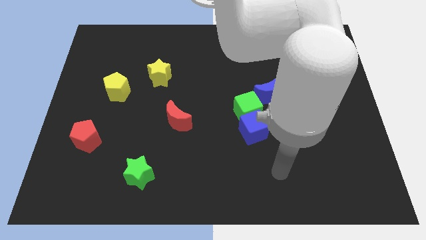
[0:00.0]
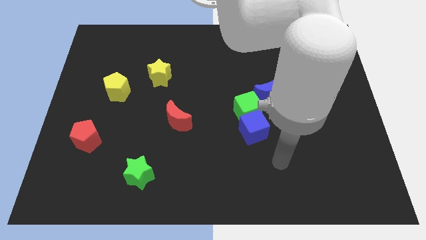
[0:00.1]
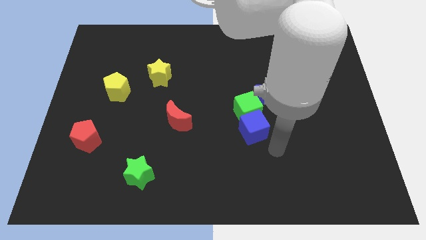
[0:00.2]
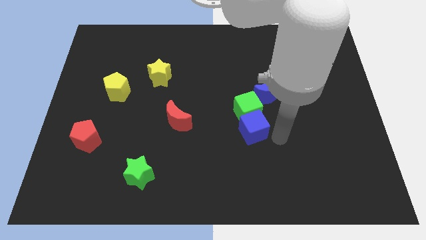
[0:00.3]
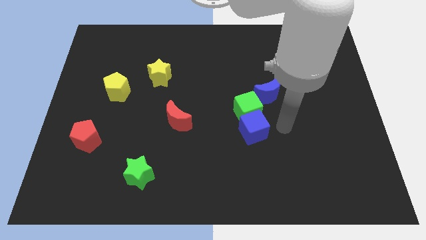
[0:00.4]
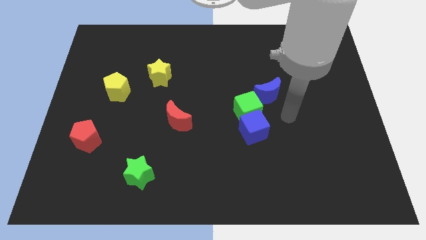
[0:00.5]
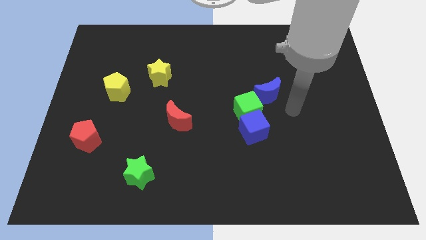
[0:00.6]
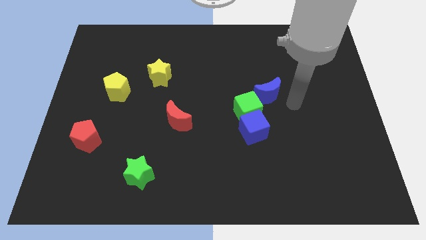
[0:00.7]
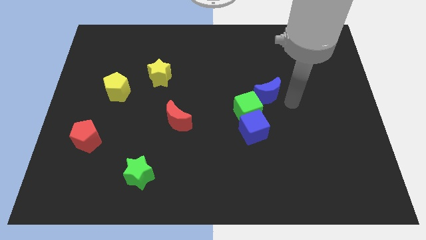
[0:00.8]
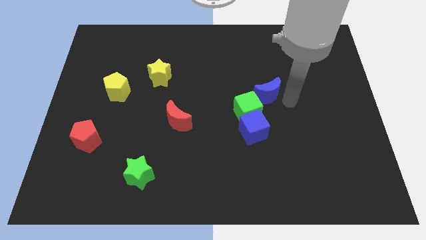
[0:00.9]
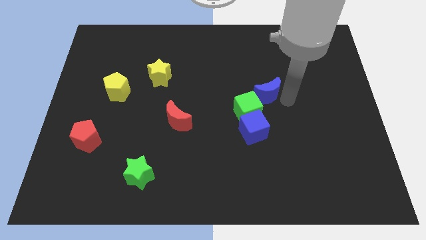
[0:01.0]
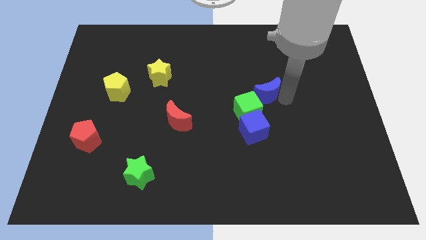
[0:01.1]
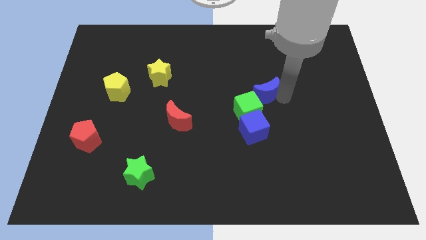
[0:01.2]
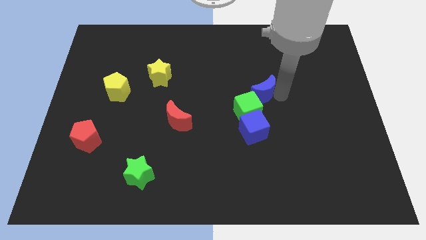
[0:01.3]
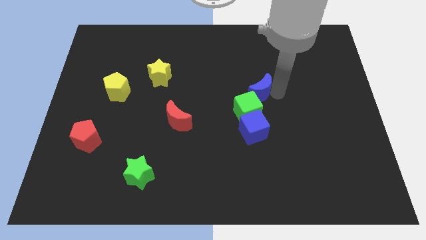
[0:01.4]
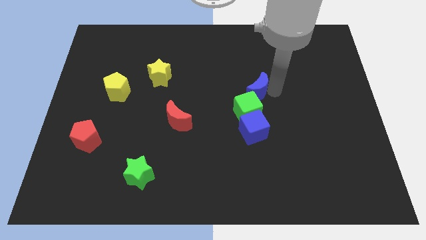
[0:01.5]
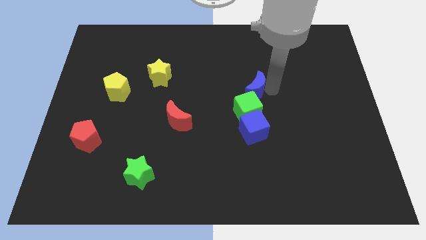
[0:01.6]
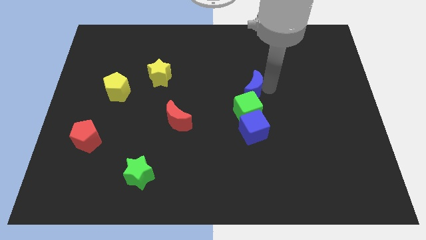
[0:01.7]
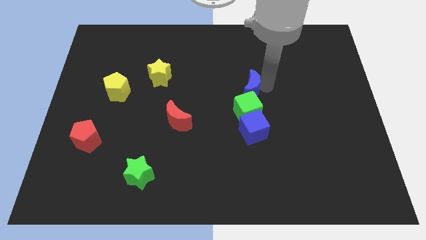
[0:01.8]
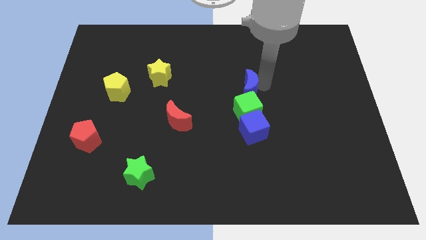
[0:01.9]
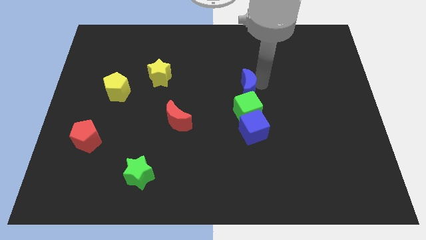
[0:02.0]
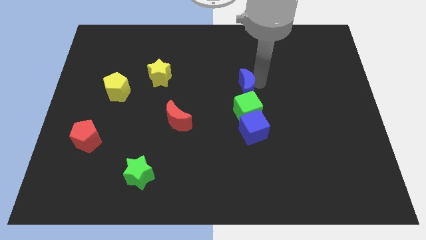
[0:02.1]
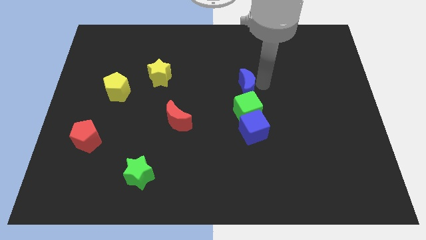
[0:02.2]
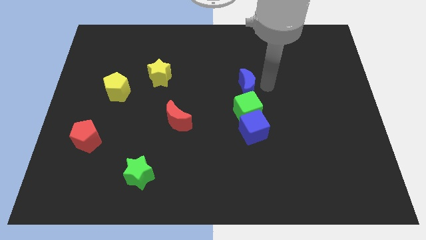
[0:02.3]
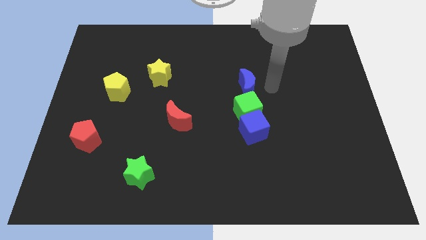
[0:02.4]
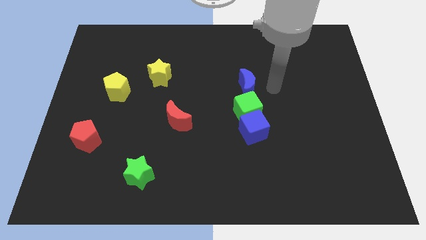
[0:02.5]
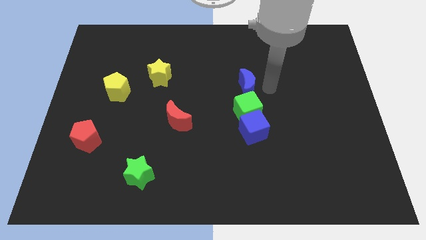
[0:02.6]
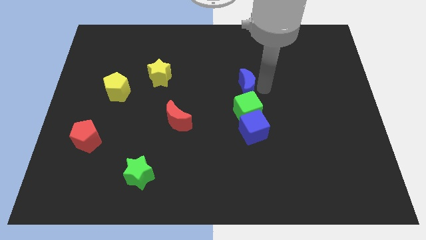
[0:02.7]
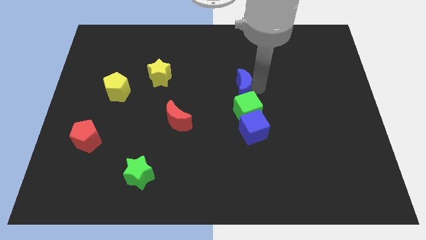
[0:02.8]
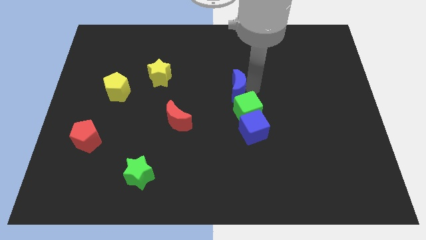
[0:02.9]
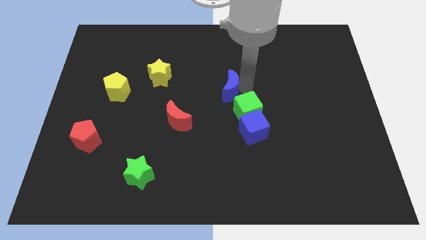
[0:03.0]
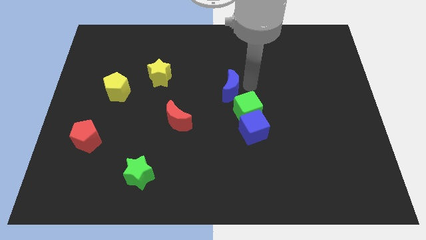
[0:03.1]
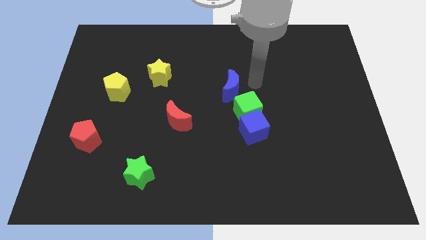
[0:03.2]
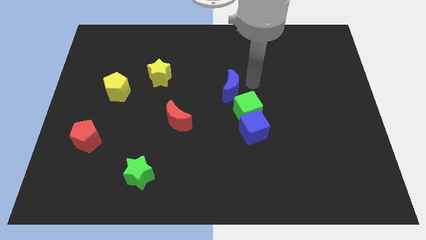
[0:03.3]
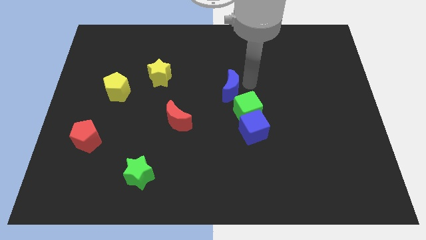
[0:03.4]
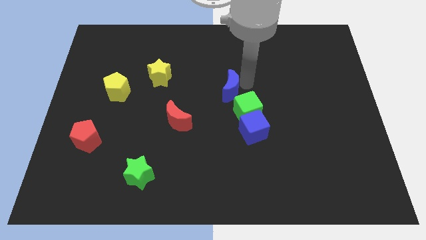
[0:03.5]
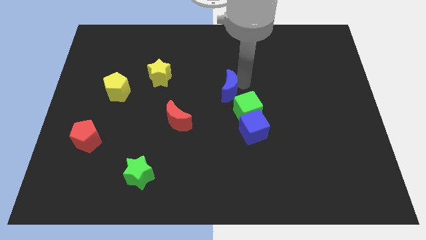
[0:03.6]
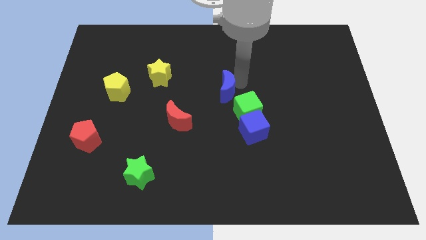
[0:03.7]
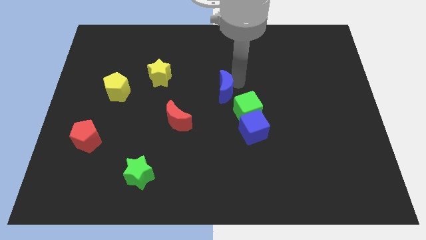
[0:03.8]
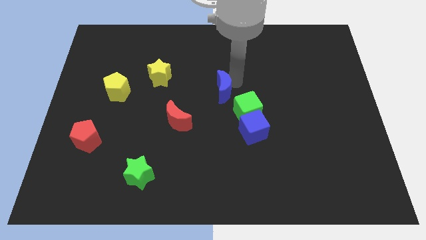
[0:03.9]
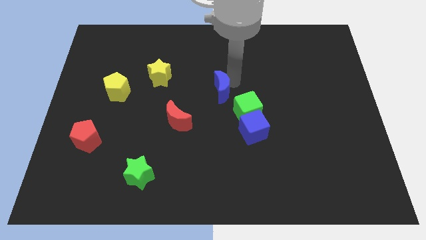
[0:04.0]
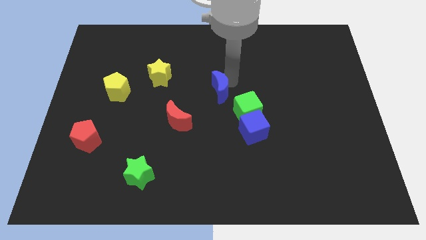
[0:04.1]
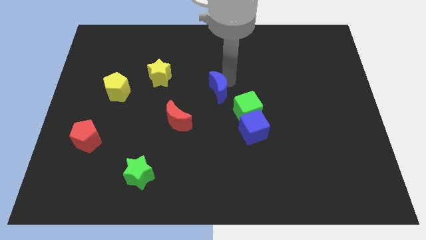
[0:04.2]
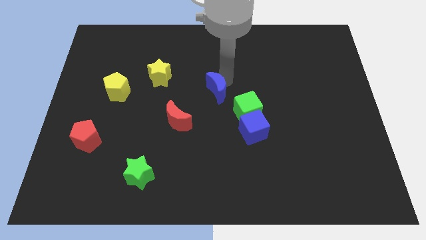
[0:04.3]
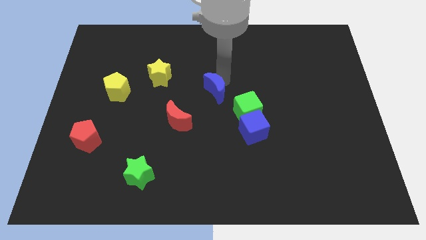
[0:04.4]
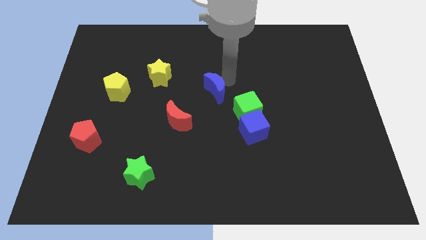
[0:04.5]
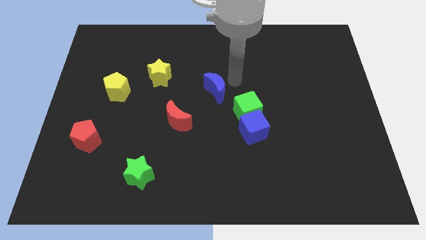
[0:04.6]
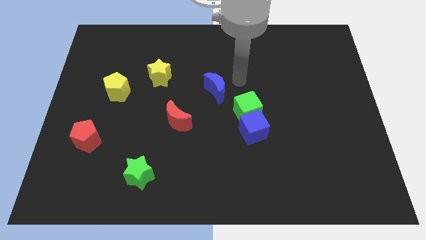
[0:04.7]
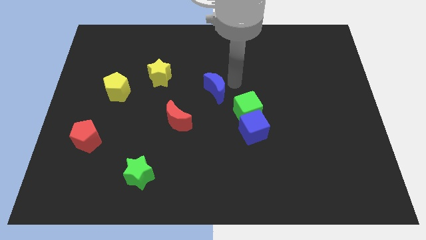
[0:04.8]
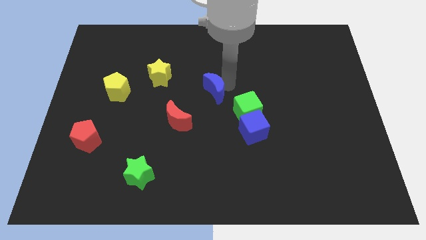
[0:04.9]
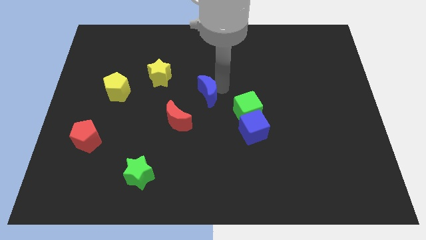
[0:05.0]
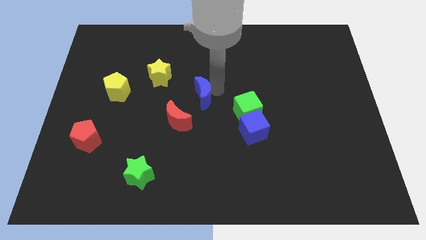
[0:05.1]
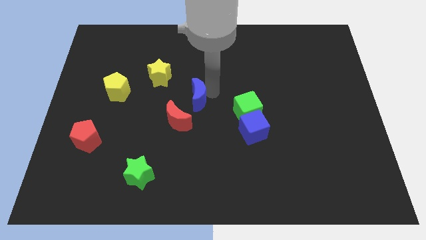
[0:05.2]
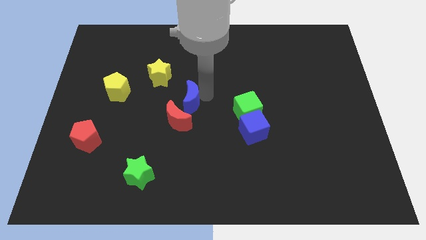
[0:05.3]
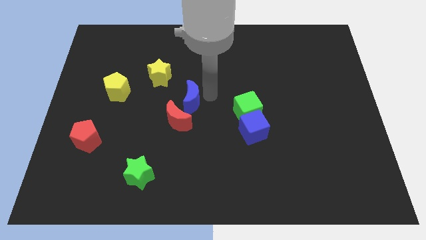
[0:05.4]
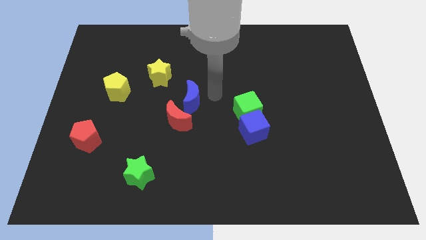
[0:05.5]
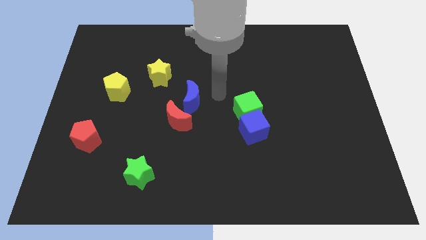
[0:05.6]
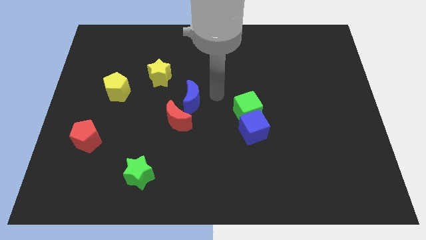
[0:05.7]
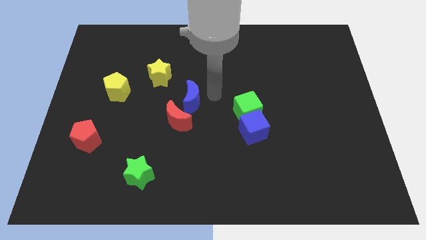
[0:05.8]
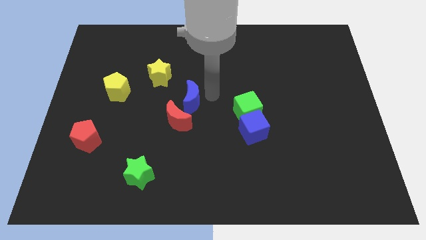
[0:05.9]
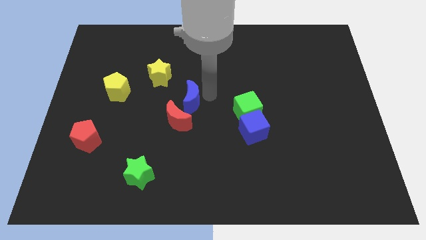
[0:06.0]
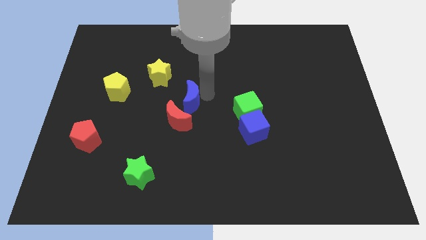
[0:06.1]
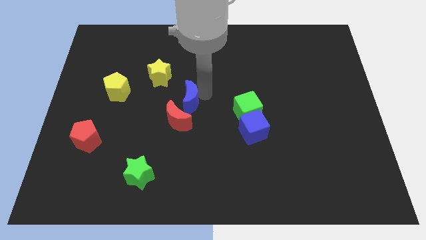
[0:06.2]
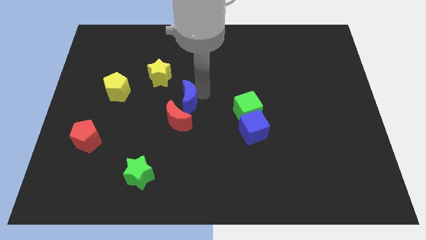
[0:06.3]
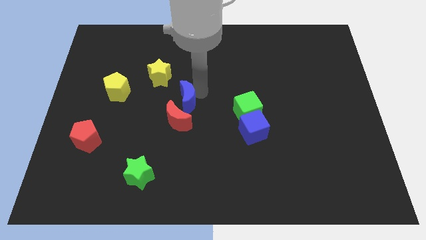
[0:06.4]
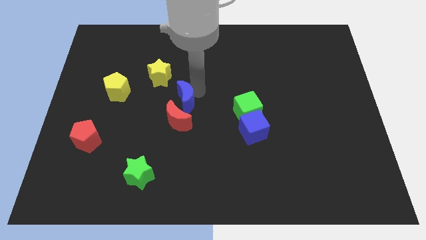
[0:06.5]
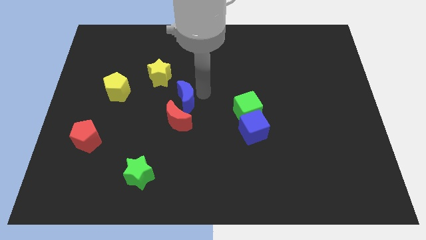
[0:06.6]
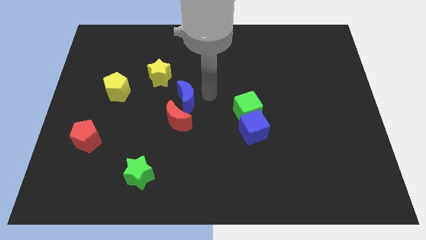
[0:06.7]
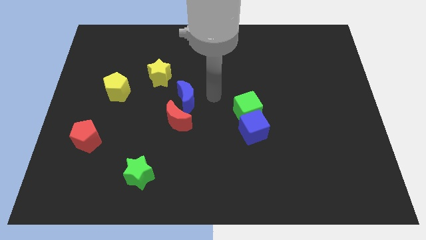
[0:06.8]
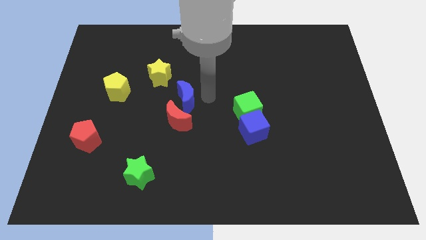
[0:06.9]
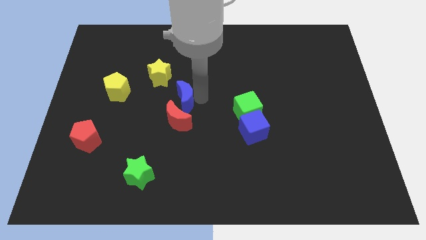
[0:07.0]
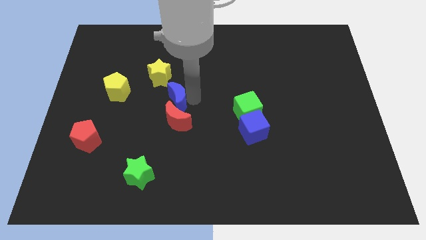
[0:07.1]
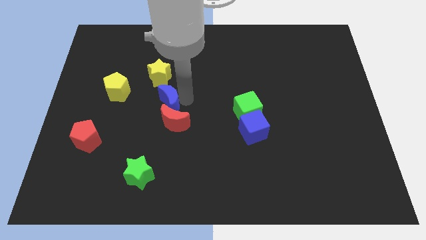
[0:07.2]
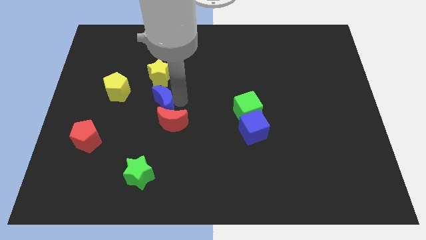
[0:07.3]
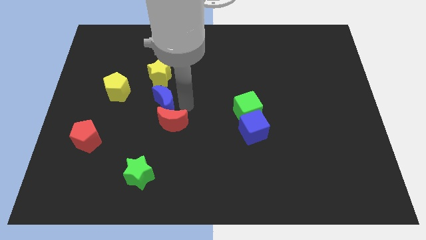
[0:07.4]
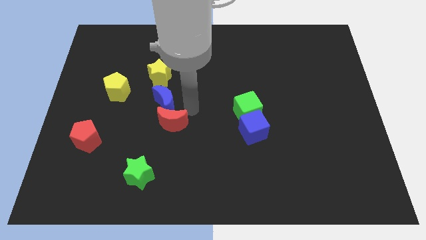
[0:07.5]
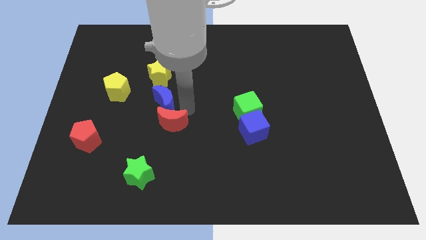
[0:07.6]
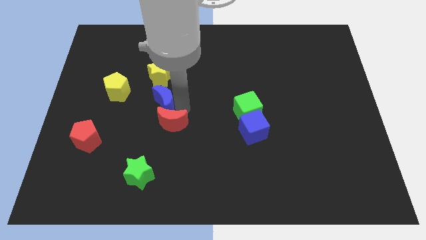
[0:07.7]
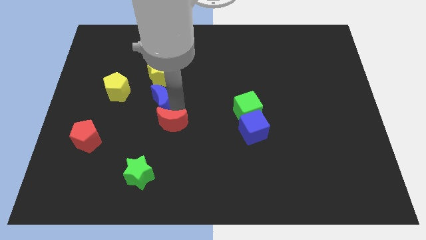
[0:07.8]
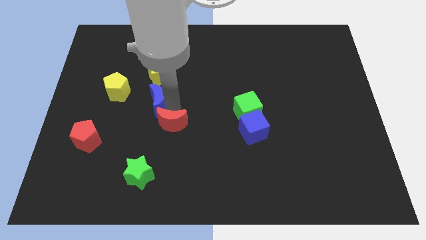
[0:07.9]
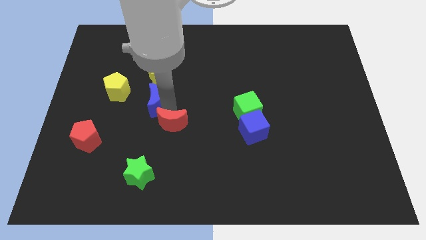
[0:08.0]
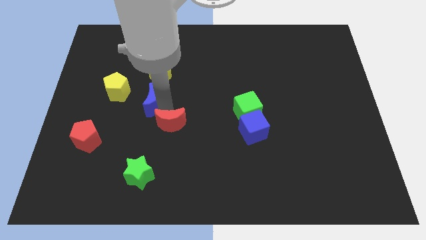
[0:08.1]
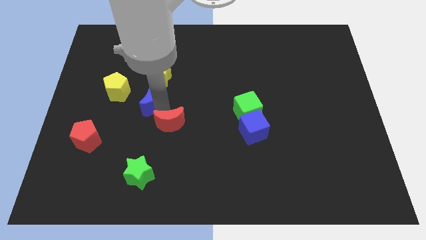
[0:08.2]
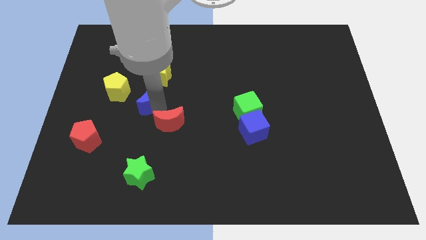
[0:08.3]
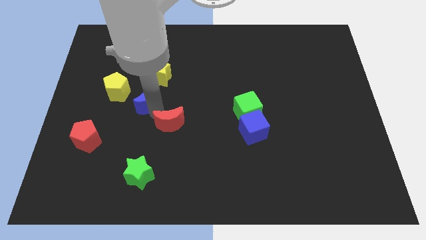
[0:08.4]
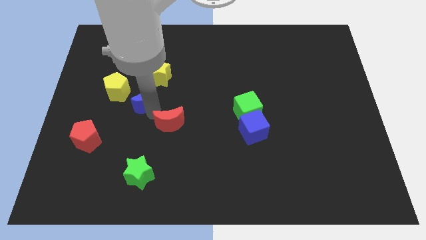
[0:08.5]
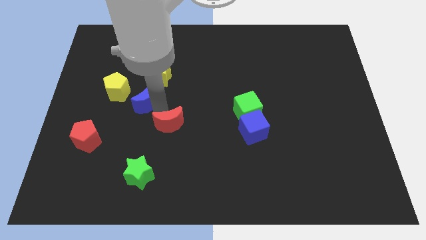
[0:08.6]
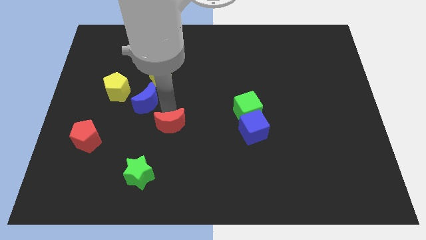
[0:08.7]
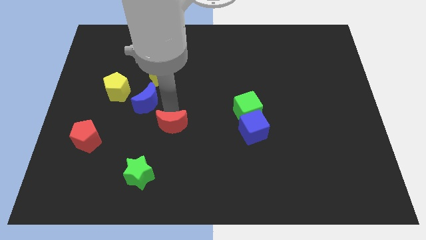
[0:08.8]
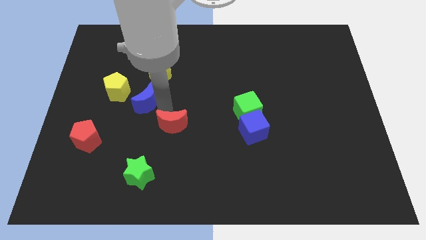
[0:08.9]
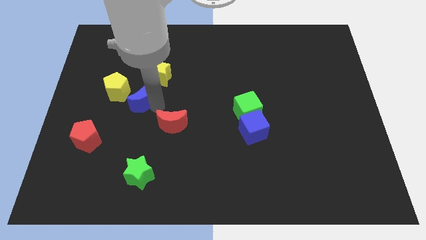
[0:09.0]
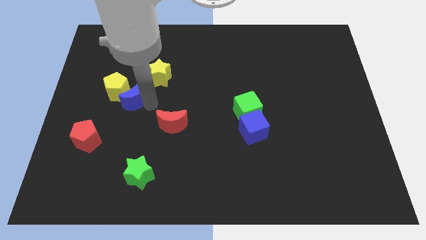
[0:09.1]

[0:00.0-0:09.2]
slide the blue moon to the yellow pentagon
